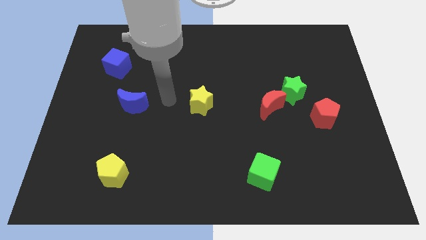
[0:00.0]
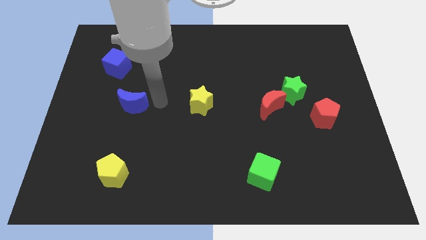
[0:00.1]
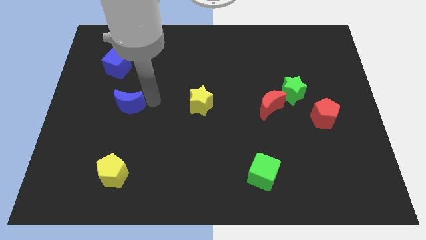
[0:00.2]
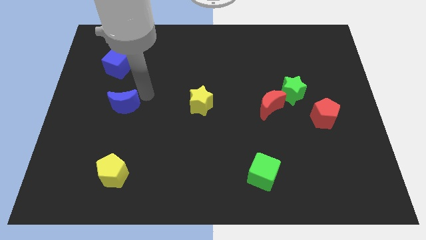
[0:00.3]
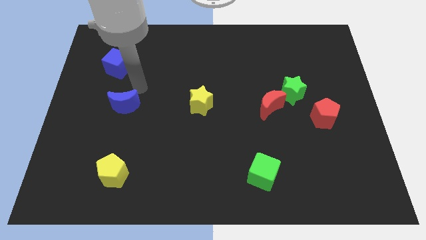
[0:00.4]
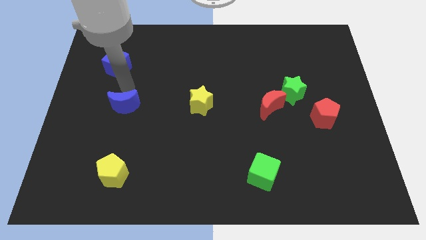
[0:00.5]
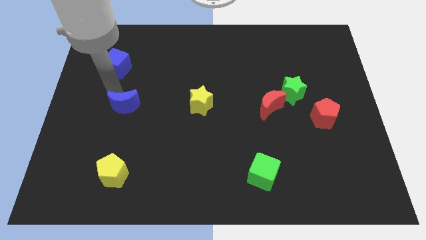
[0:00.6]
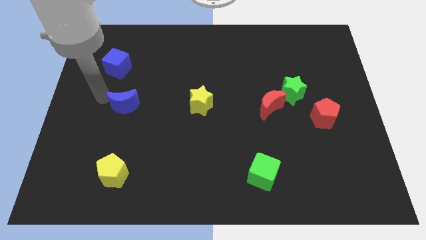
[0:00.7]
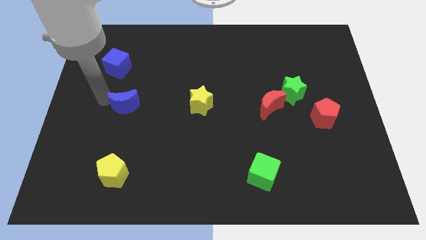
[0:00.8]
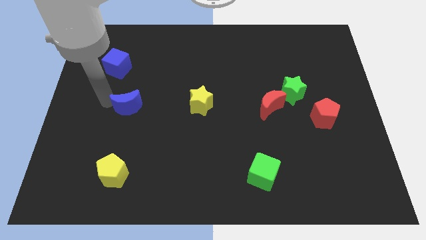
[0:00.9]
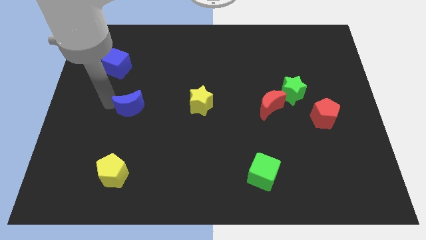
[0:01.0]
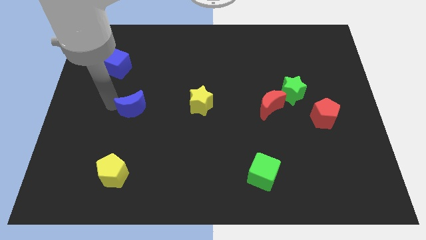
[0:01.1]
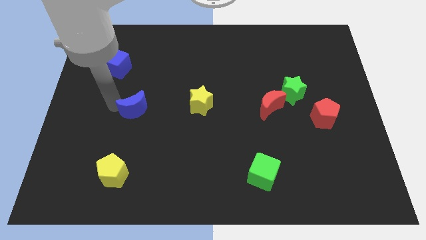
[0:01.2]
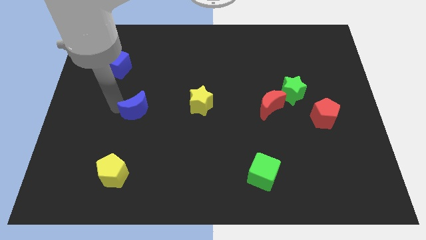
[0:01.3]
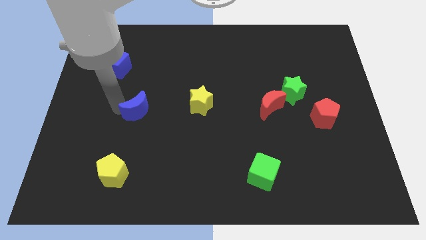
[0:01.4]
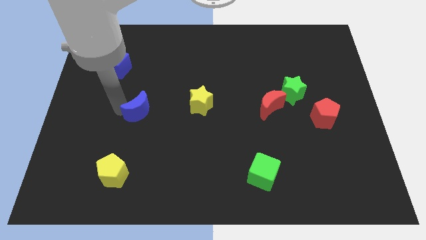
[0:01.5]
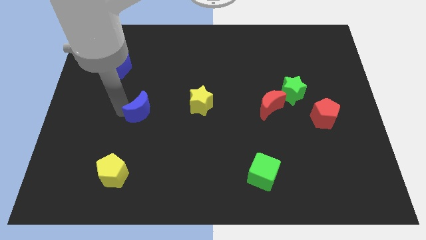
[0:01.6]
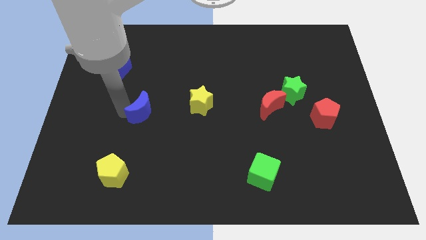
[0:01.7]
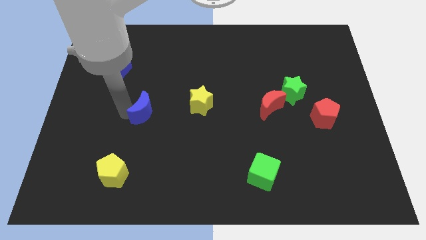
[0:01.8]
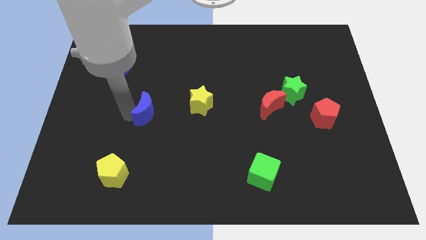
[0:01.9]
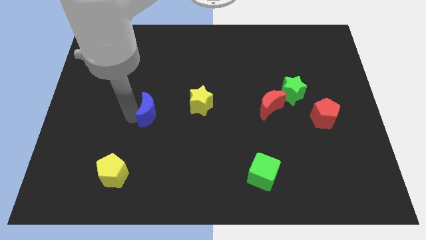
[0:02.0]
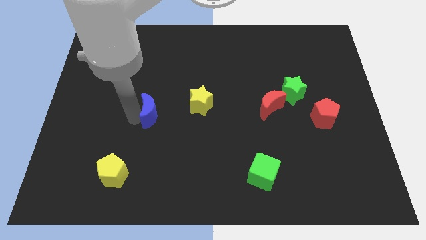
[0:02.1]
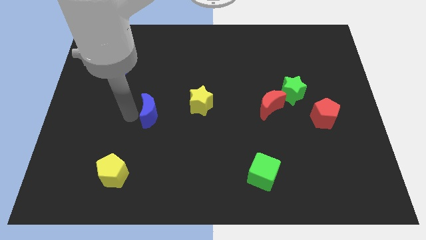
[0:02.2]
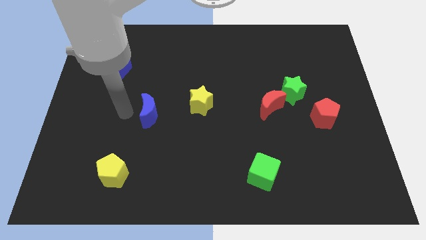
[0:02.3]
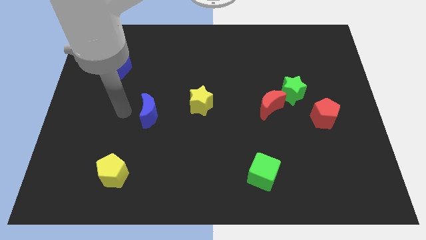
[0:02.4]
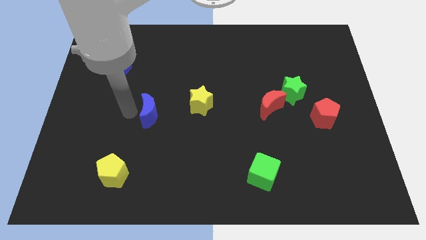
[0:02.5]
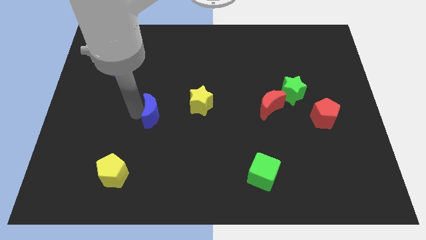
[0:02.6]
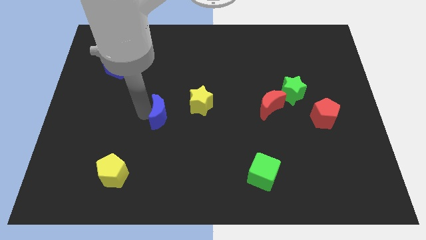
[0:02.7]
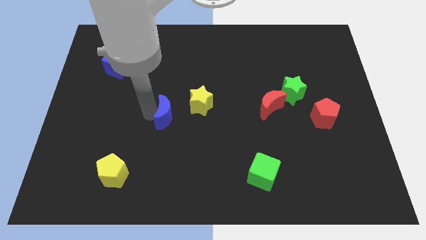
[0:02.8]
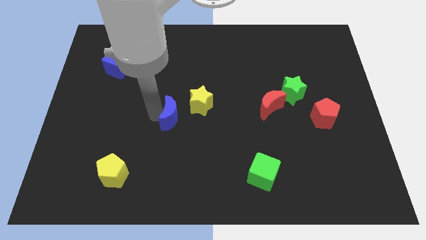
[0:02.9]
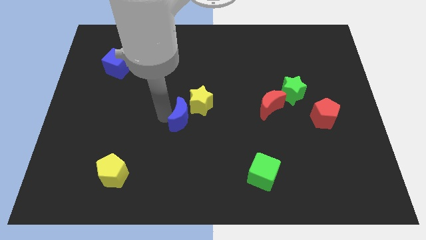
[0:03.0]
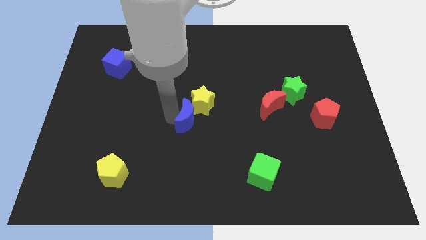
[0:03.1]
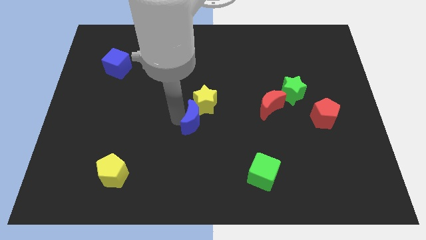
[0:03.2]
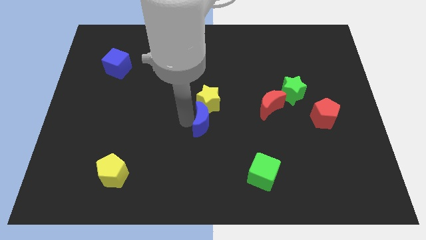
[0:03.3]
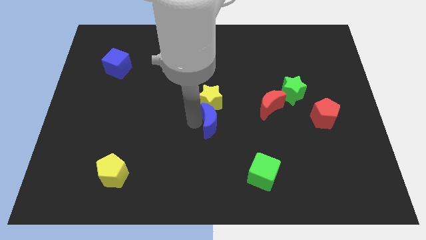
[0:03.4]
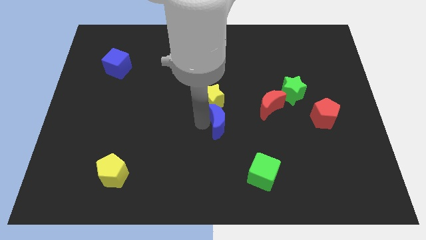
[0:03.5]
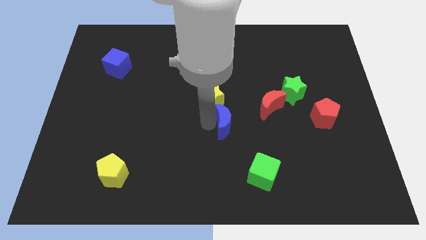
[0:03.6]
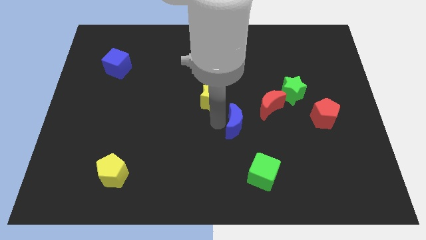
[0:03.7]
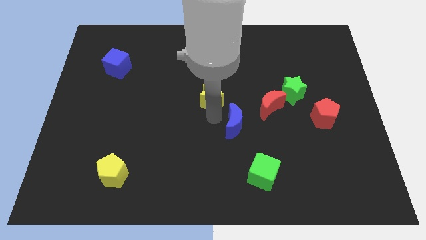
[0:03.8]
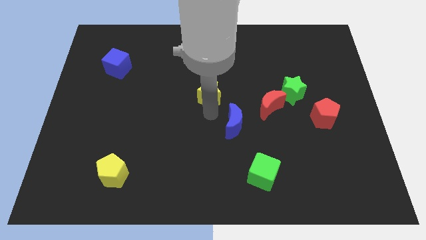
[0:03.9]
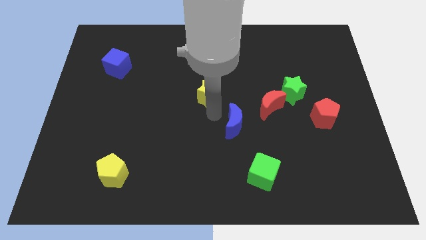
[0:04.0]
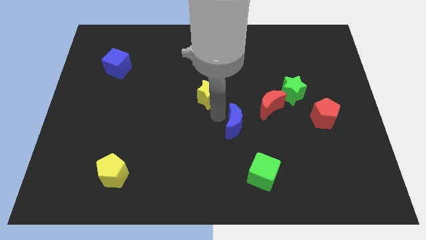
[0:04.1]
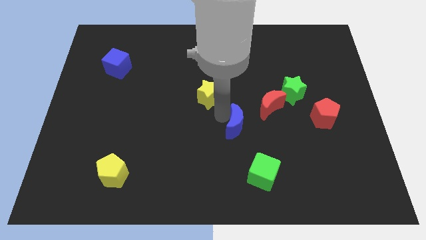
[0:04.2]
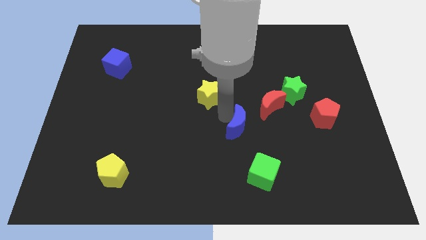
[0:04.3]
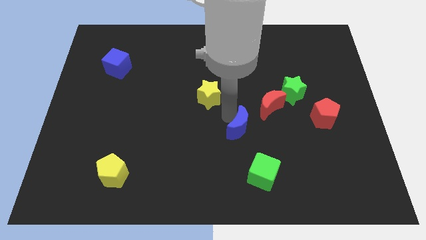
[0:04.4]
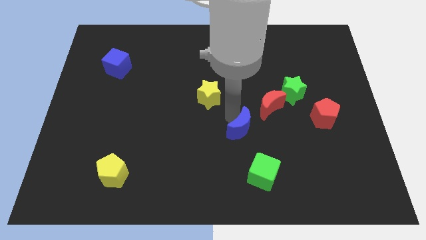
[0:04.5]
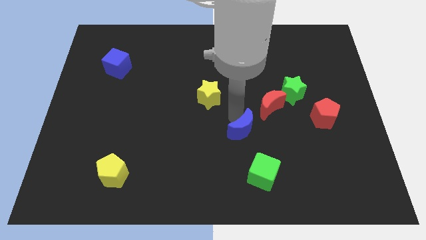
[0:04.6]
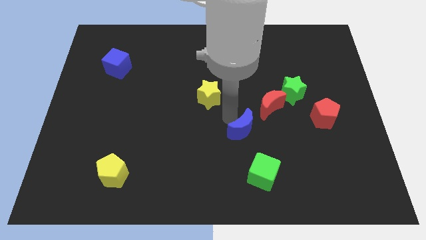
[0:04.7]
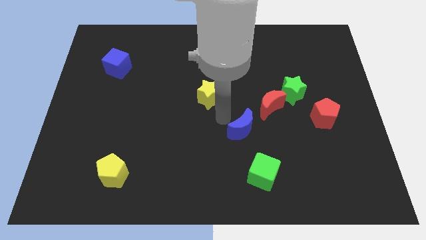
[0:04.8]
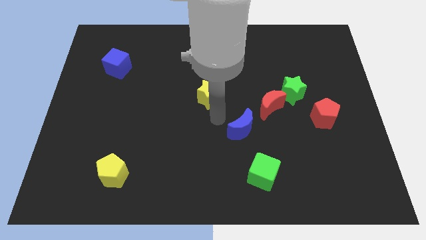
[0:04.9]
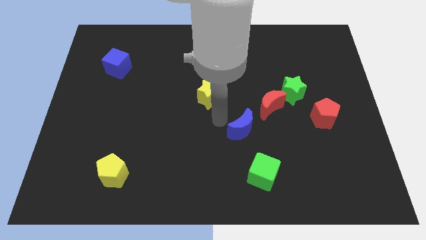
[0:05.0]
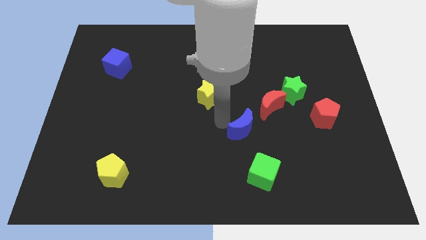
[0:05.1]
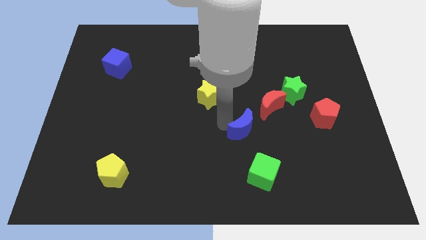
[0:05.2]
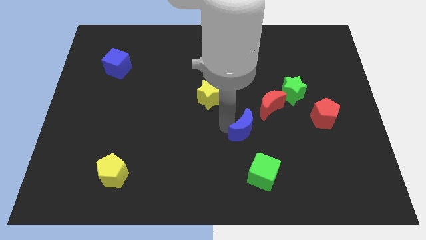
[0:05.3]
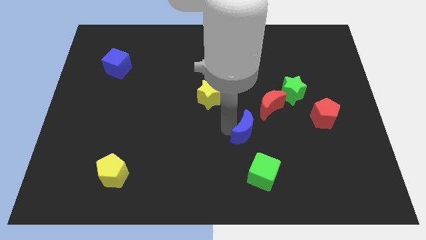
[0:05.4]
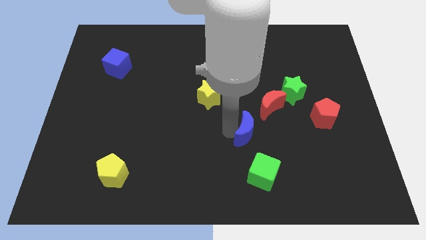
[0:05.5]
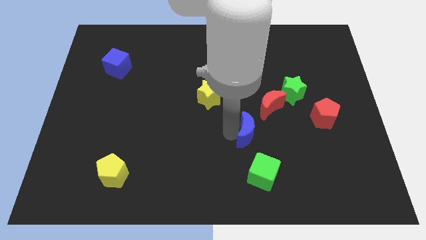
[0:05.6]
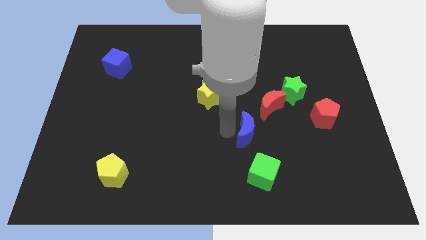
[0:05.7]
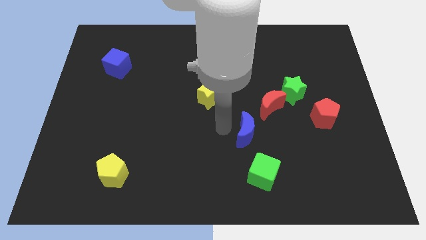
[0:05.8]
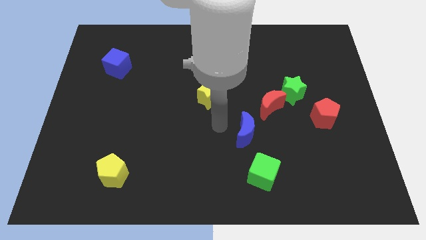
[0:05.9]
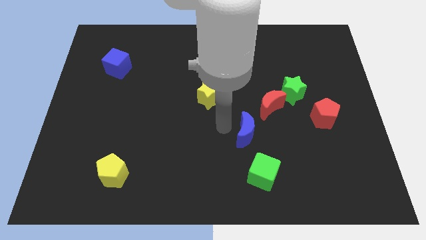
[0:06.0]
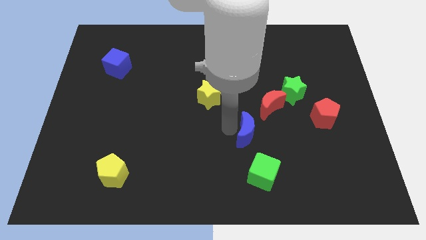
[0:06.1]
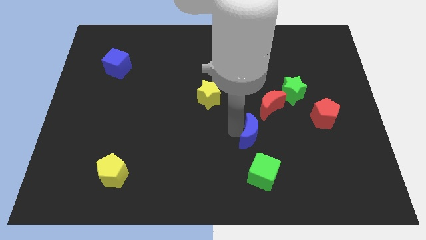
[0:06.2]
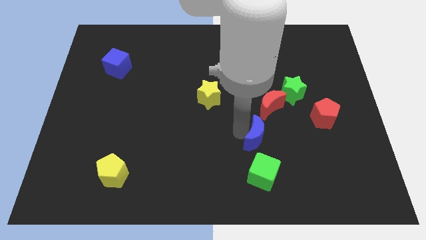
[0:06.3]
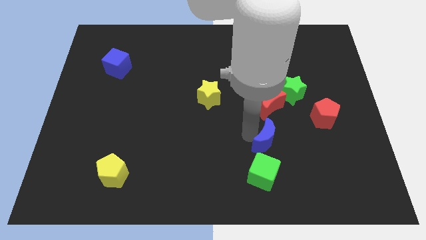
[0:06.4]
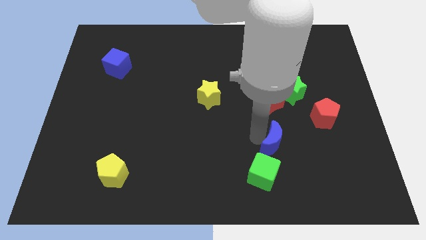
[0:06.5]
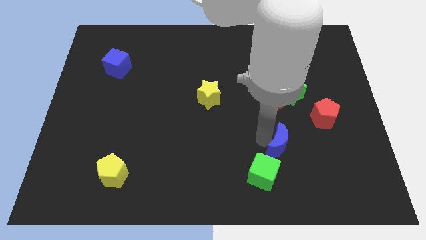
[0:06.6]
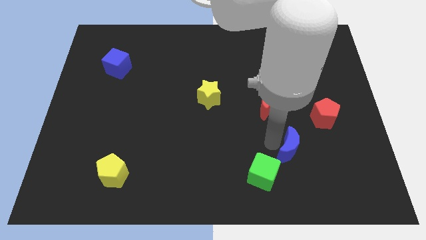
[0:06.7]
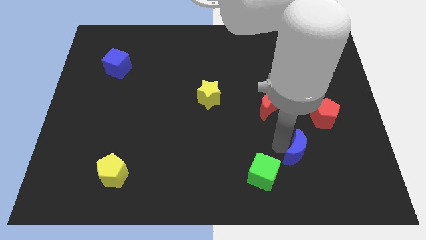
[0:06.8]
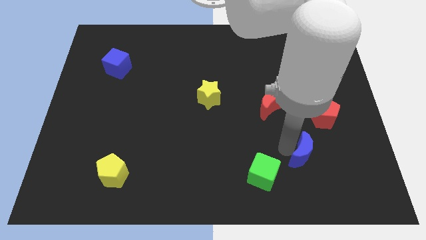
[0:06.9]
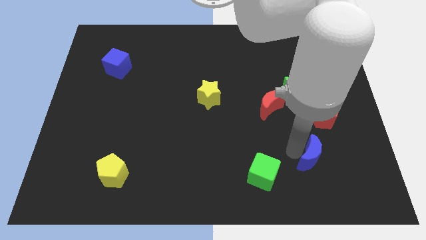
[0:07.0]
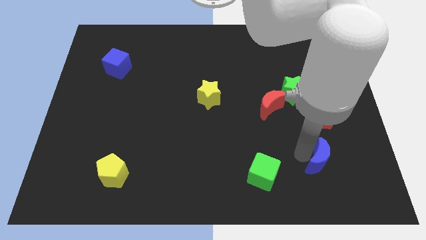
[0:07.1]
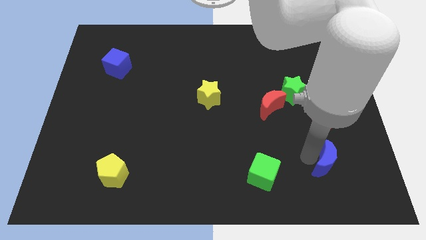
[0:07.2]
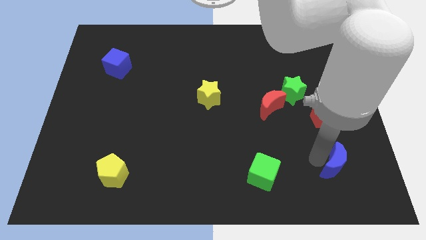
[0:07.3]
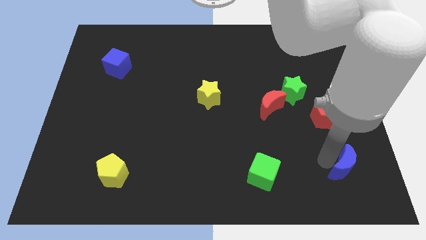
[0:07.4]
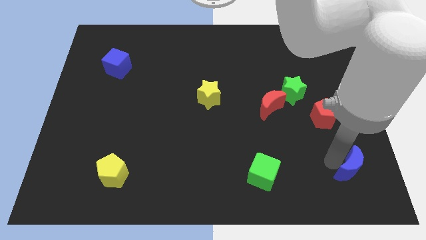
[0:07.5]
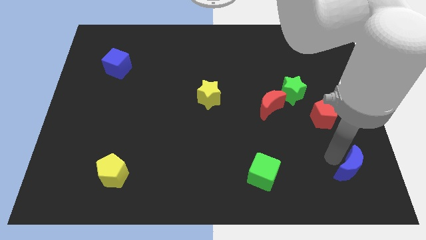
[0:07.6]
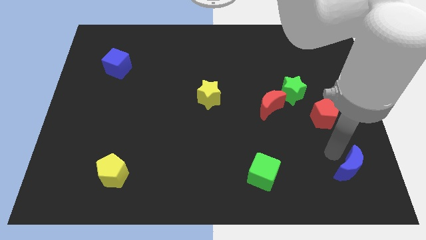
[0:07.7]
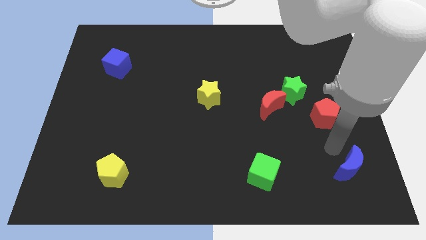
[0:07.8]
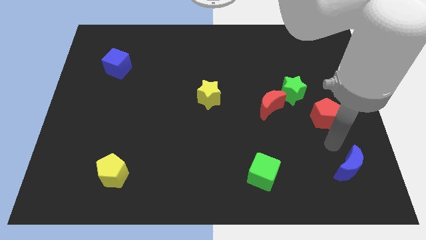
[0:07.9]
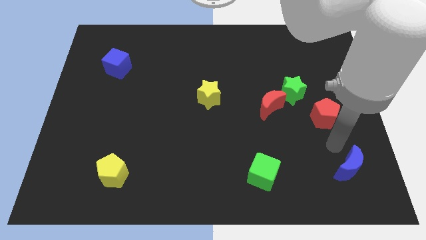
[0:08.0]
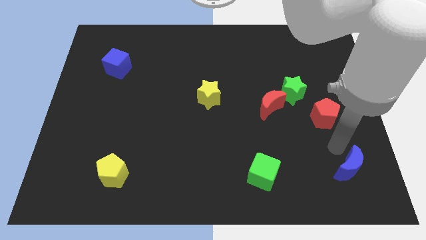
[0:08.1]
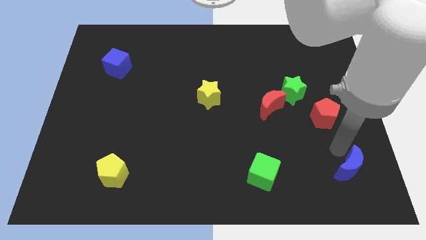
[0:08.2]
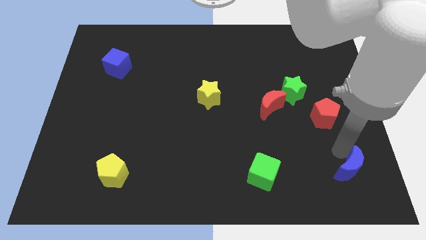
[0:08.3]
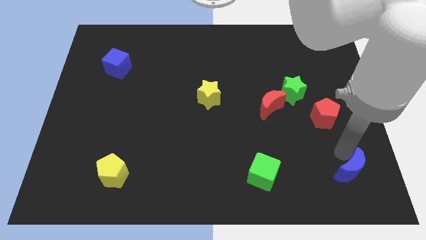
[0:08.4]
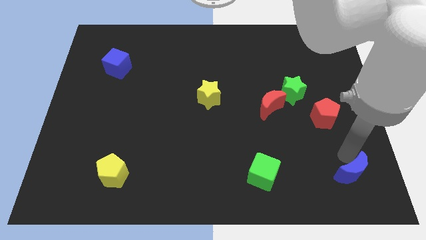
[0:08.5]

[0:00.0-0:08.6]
move the blue moon to the bottom right of the board
